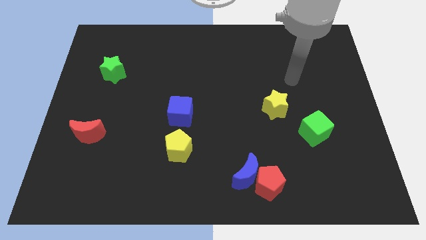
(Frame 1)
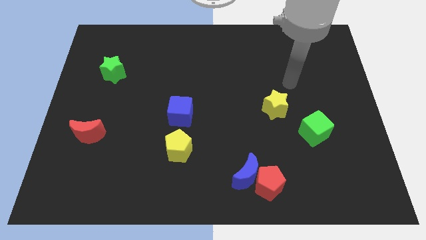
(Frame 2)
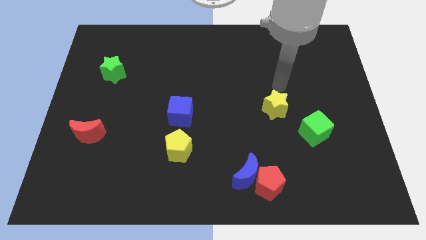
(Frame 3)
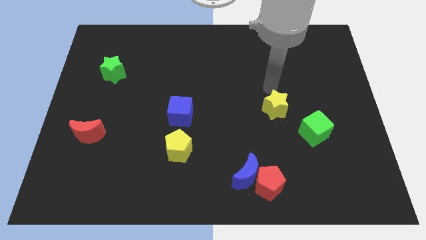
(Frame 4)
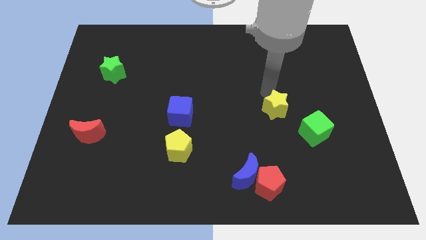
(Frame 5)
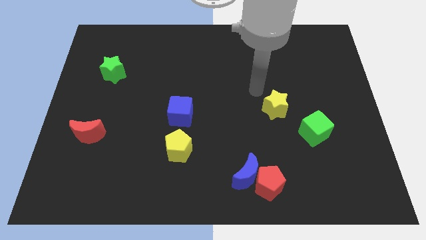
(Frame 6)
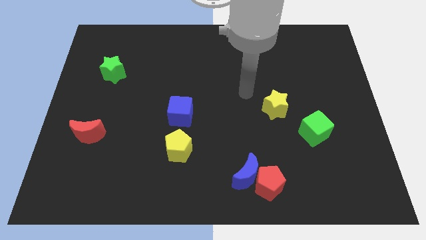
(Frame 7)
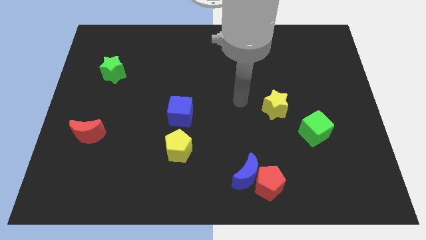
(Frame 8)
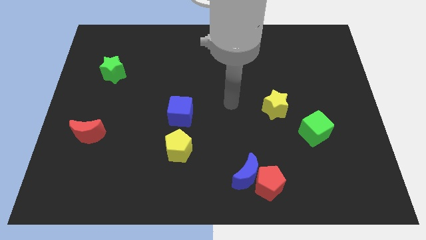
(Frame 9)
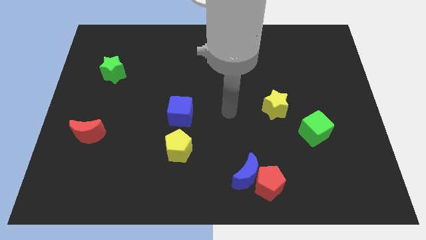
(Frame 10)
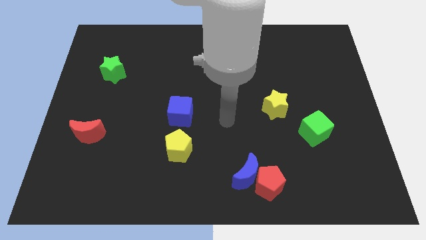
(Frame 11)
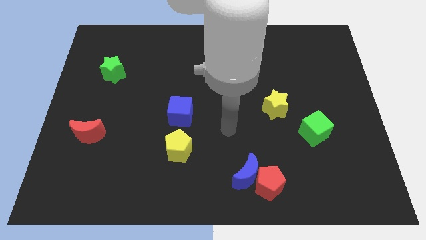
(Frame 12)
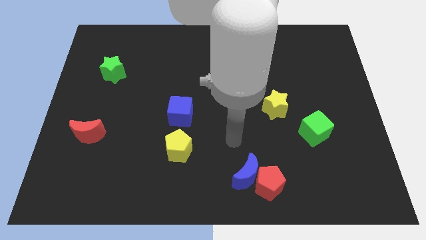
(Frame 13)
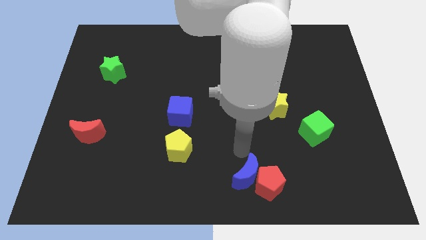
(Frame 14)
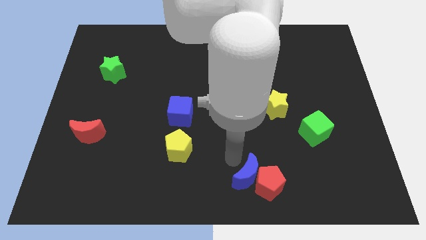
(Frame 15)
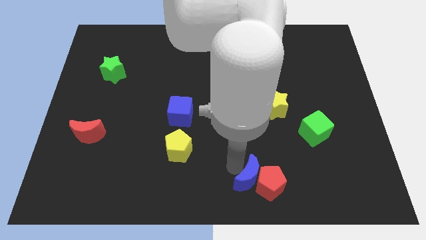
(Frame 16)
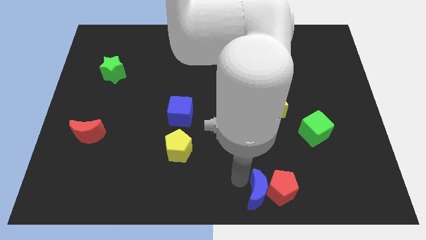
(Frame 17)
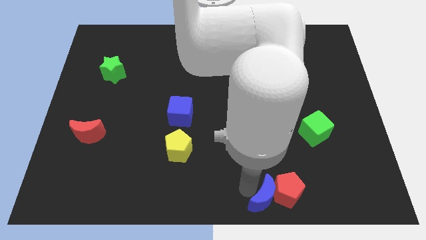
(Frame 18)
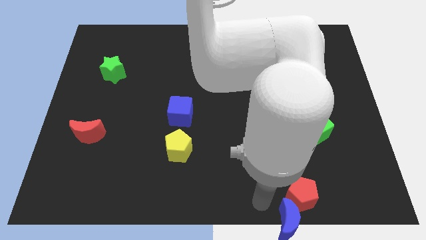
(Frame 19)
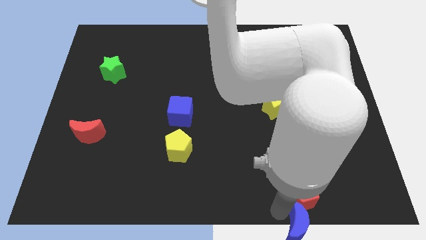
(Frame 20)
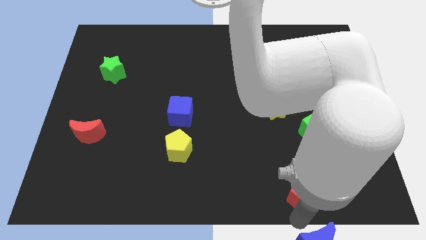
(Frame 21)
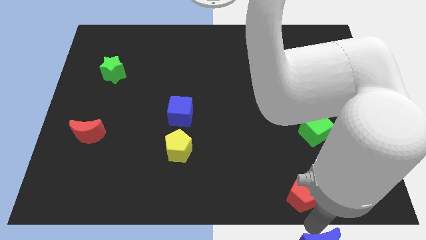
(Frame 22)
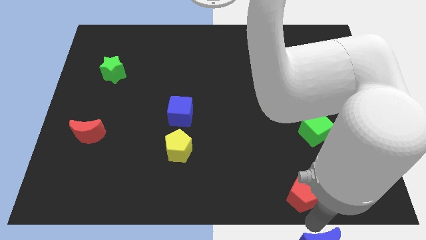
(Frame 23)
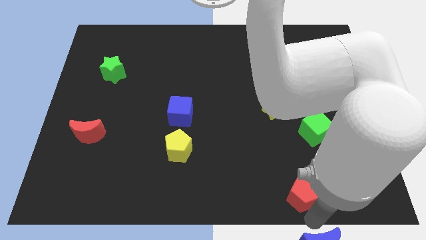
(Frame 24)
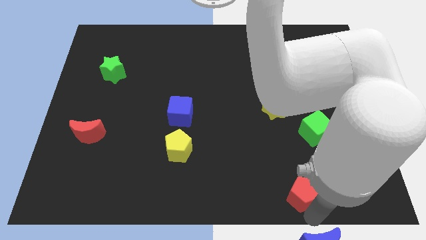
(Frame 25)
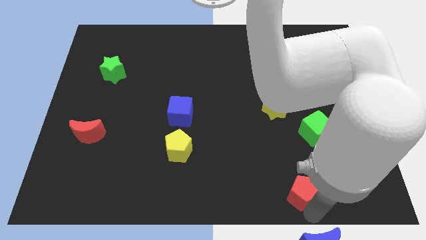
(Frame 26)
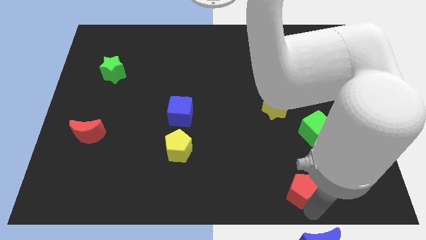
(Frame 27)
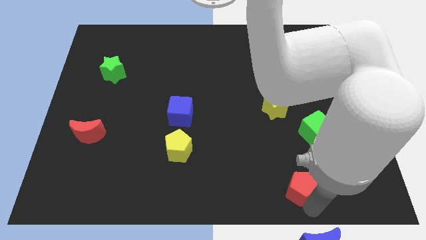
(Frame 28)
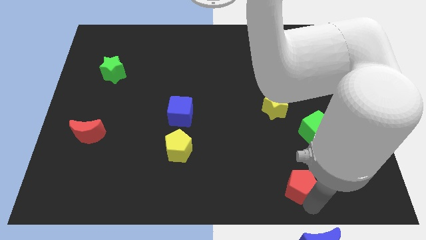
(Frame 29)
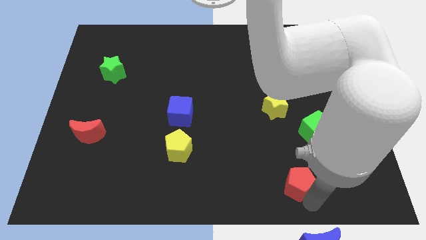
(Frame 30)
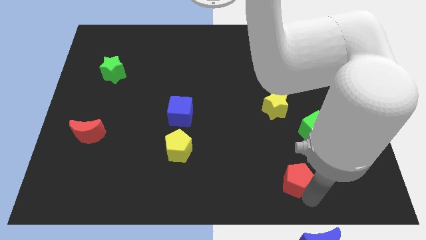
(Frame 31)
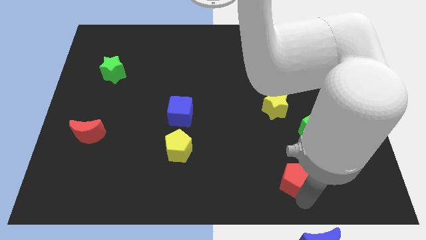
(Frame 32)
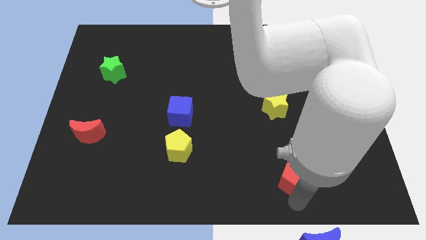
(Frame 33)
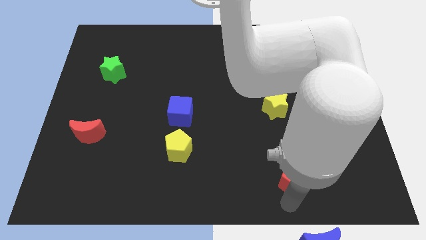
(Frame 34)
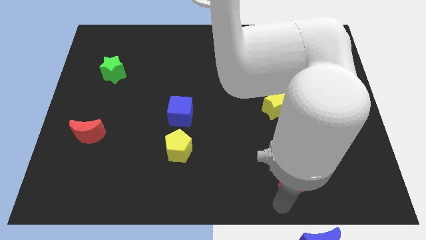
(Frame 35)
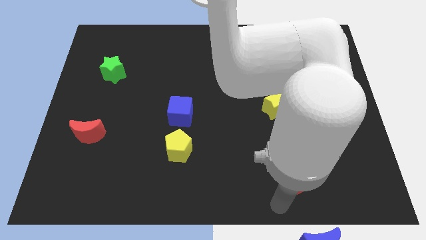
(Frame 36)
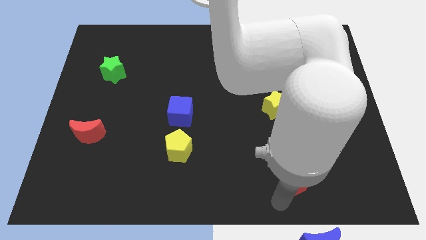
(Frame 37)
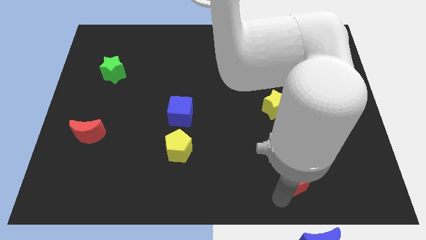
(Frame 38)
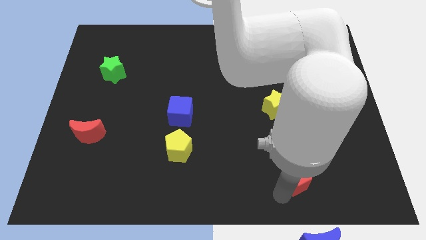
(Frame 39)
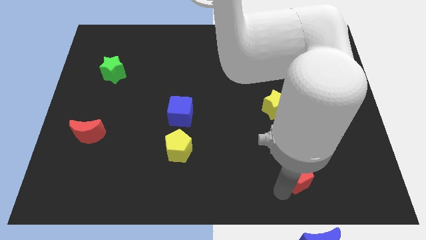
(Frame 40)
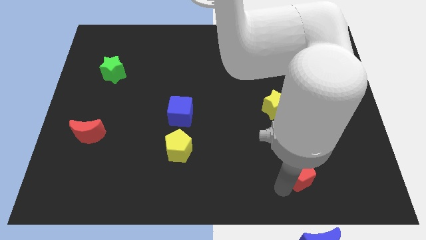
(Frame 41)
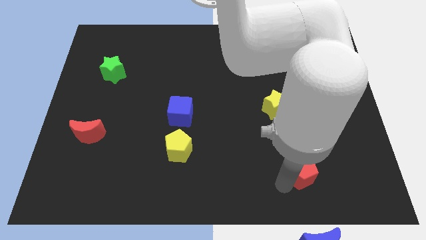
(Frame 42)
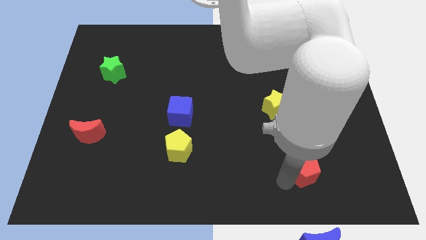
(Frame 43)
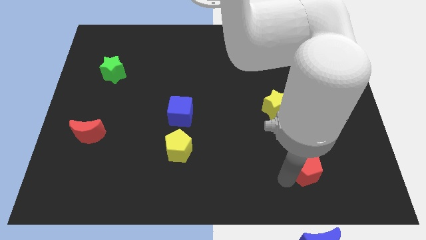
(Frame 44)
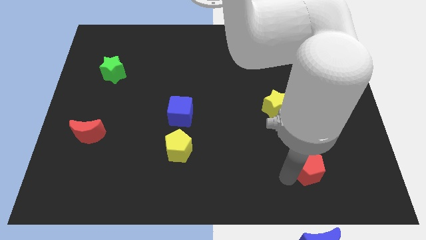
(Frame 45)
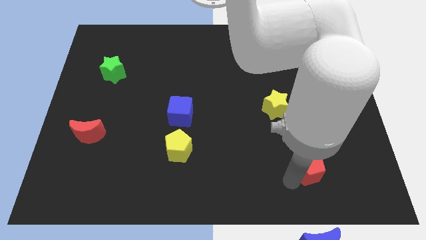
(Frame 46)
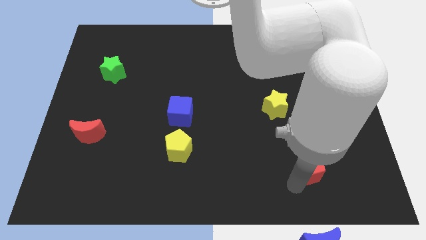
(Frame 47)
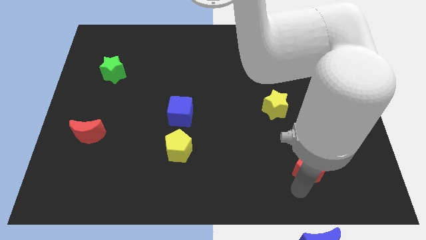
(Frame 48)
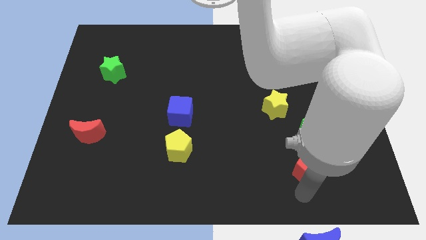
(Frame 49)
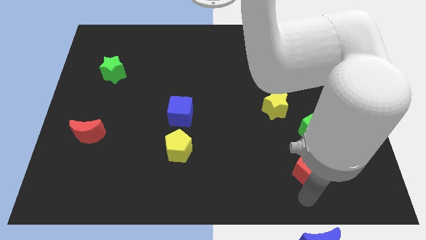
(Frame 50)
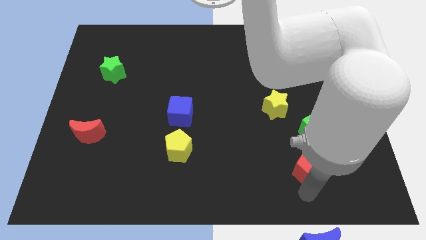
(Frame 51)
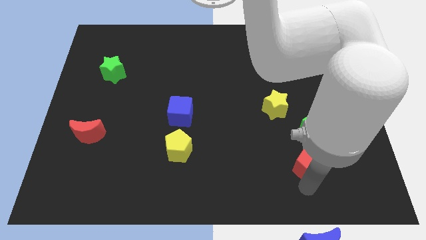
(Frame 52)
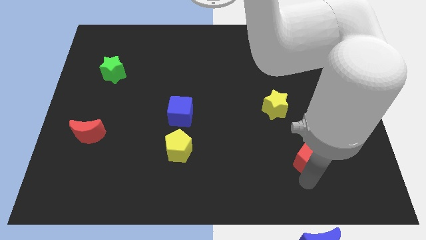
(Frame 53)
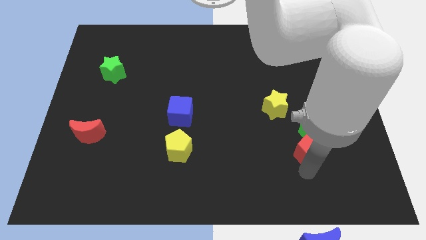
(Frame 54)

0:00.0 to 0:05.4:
push the red pentagon close to the green cube

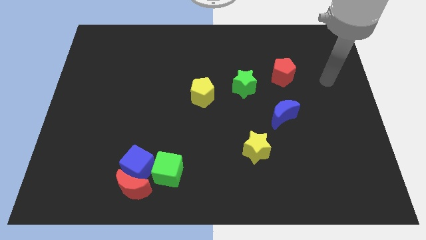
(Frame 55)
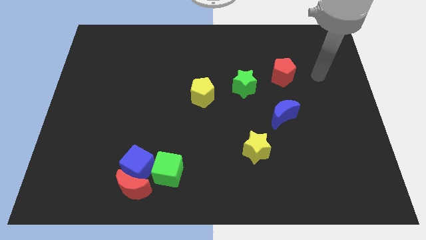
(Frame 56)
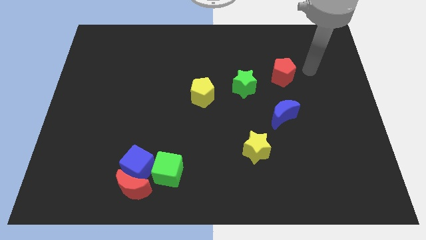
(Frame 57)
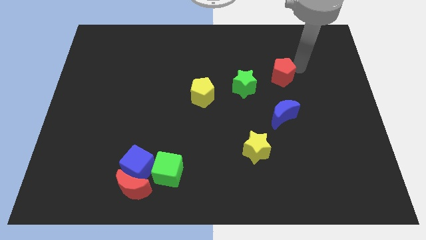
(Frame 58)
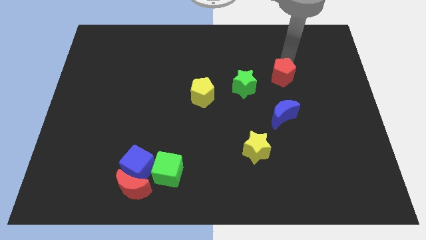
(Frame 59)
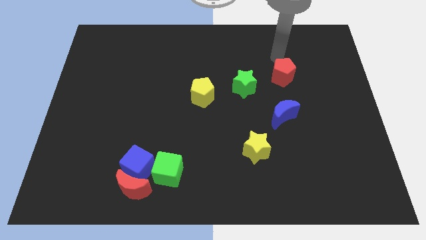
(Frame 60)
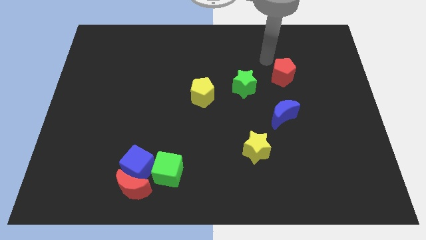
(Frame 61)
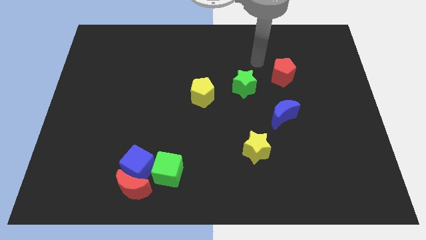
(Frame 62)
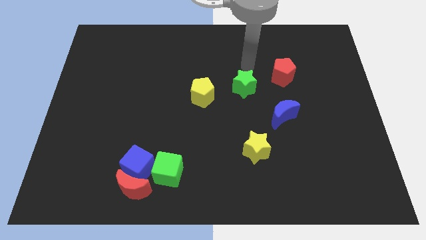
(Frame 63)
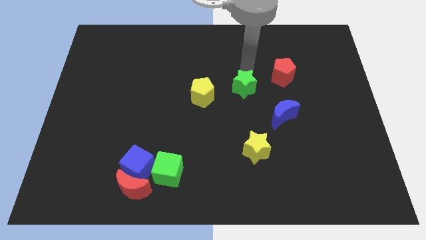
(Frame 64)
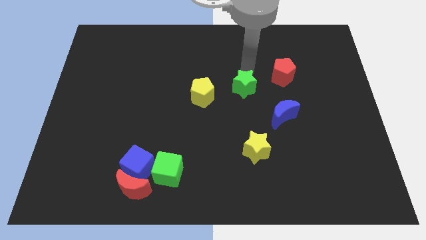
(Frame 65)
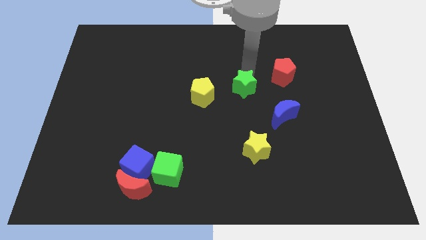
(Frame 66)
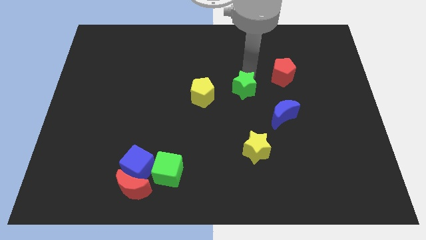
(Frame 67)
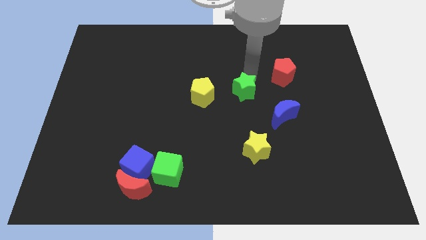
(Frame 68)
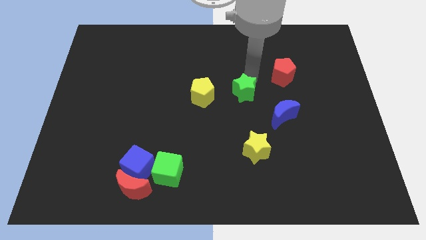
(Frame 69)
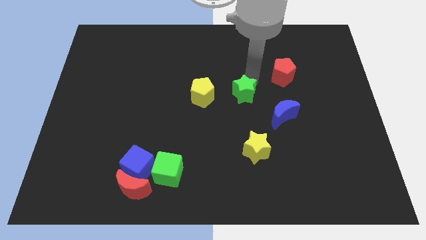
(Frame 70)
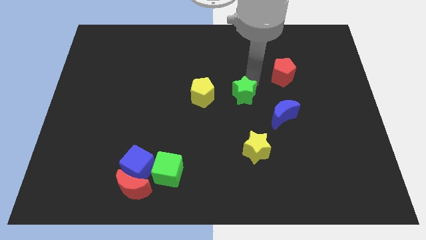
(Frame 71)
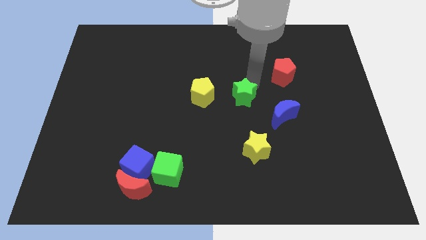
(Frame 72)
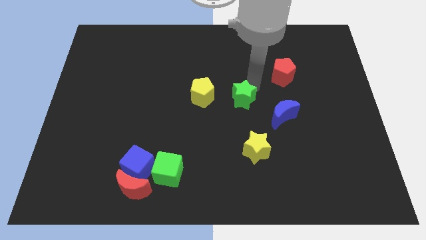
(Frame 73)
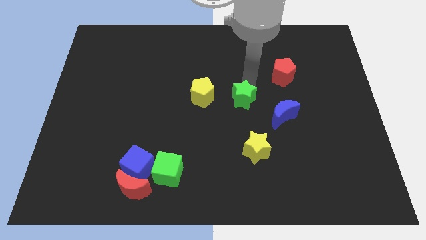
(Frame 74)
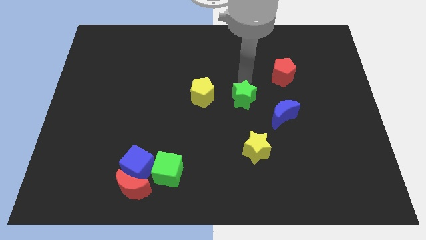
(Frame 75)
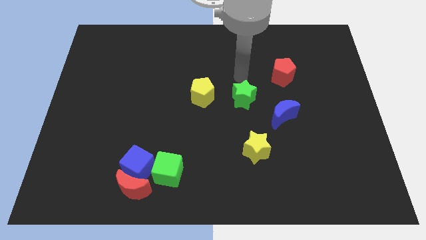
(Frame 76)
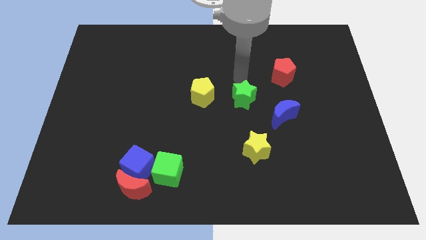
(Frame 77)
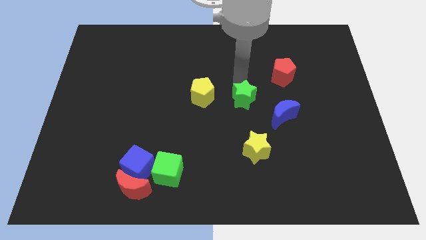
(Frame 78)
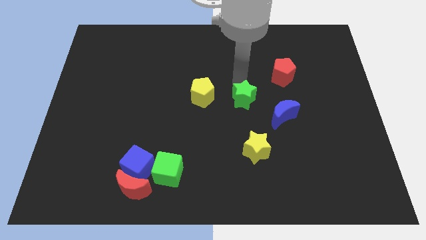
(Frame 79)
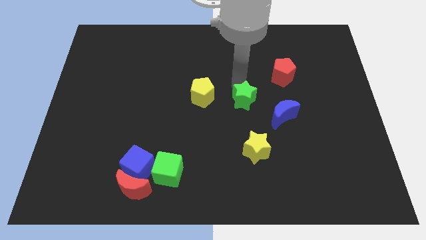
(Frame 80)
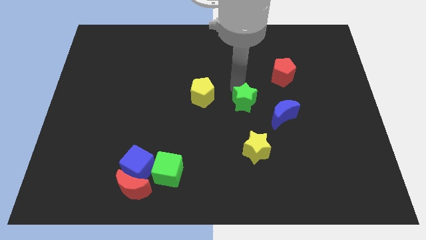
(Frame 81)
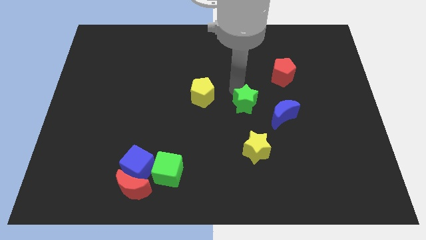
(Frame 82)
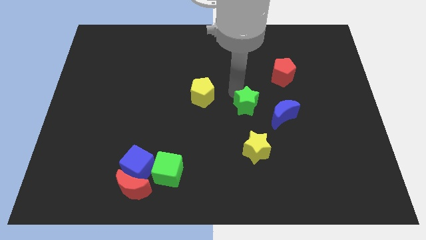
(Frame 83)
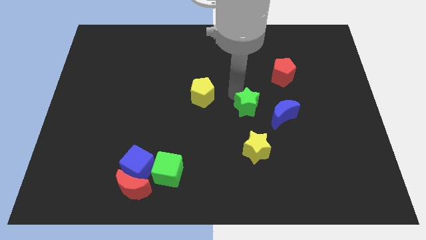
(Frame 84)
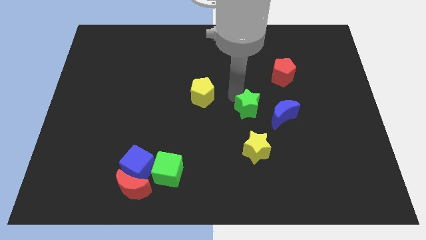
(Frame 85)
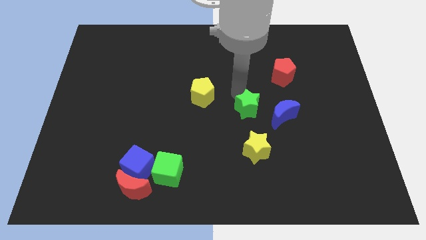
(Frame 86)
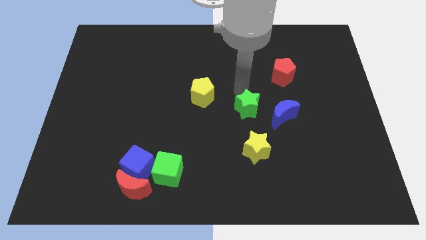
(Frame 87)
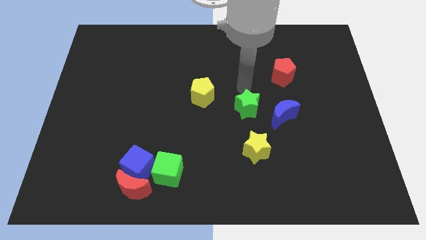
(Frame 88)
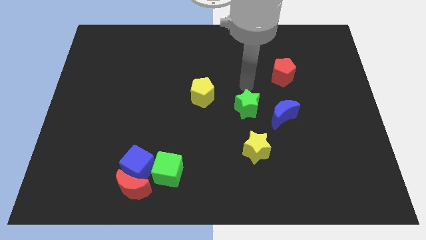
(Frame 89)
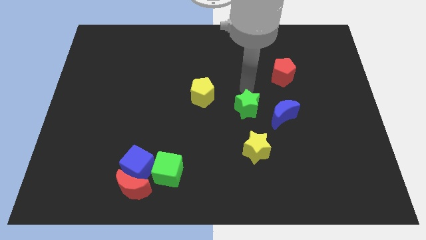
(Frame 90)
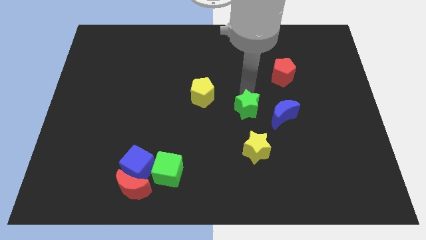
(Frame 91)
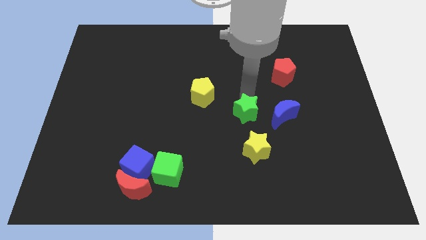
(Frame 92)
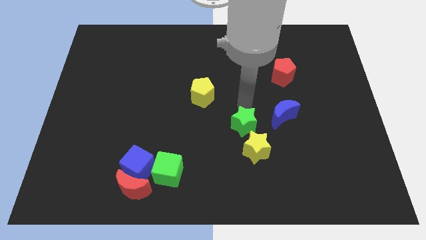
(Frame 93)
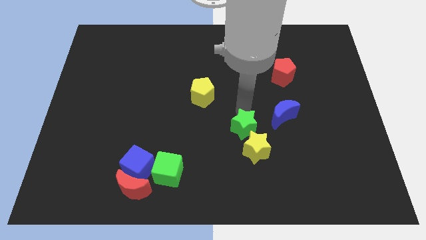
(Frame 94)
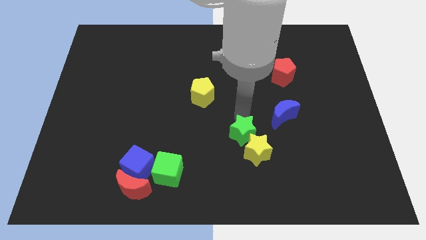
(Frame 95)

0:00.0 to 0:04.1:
slide the green star to the yellow star
